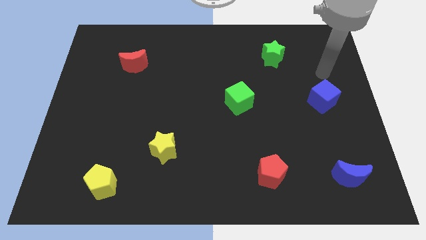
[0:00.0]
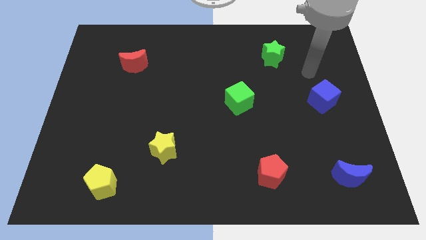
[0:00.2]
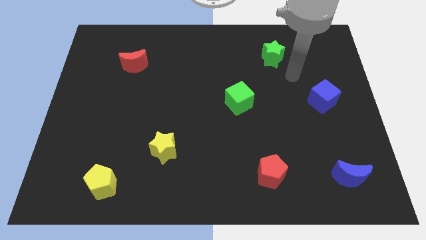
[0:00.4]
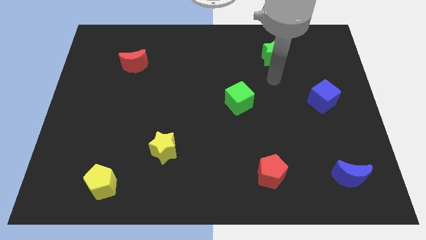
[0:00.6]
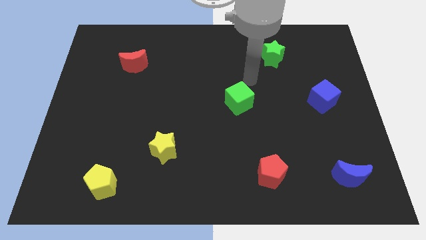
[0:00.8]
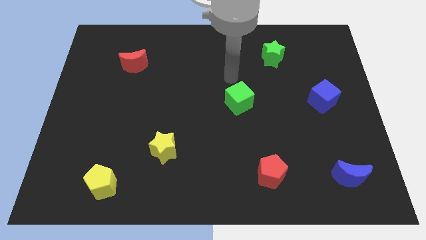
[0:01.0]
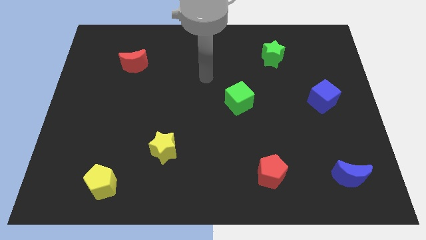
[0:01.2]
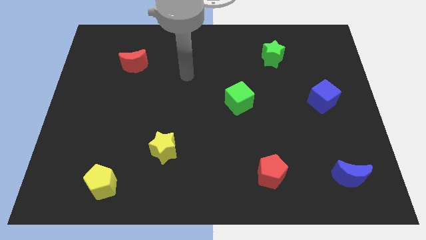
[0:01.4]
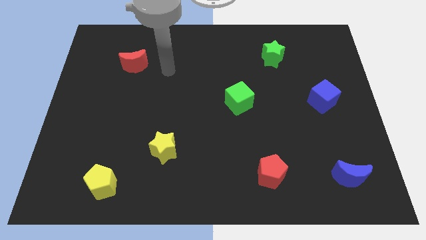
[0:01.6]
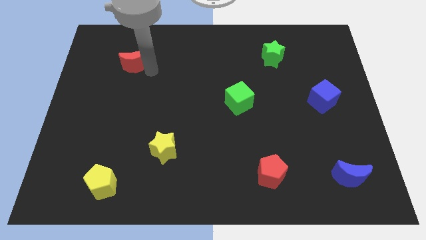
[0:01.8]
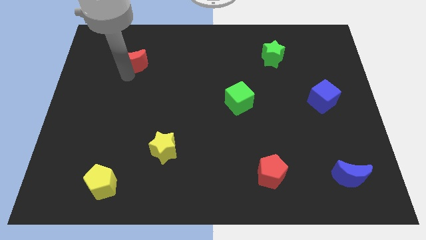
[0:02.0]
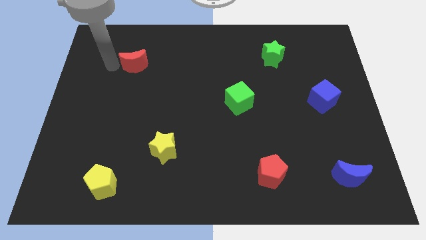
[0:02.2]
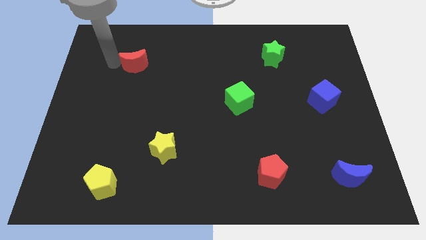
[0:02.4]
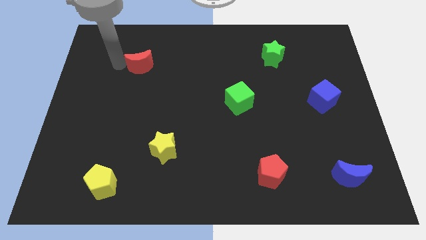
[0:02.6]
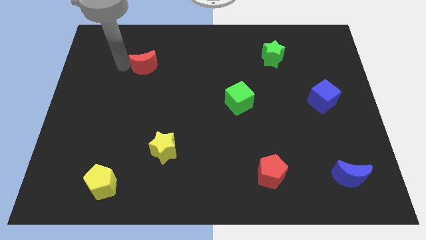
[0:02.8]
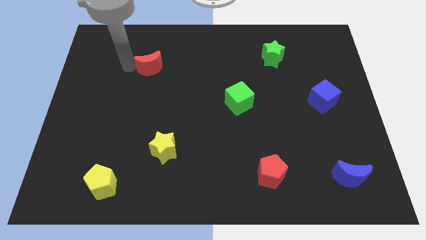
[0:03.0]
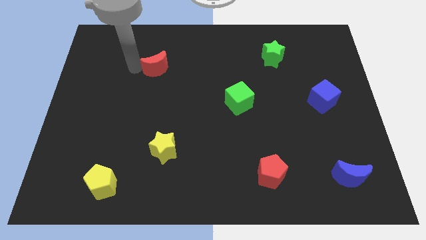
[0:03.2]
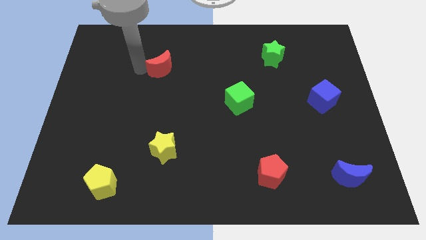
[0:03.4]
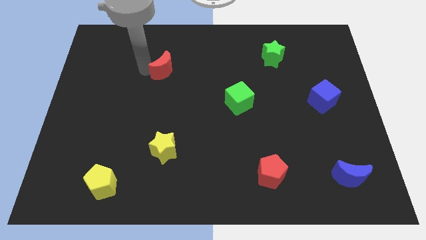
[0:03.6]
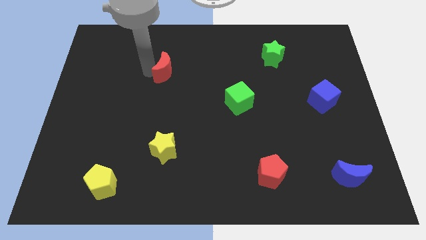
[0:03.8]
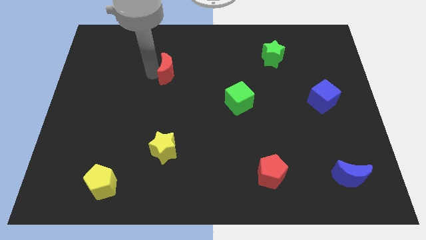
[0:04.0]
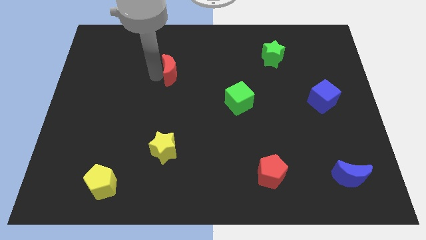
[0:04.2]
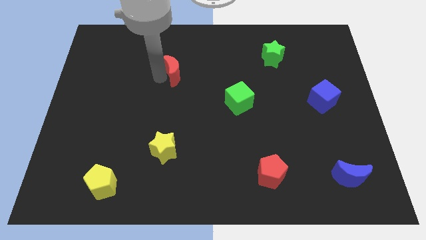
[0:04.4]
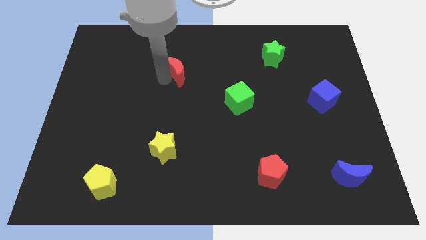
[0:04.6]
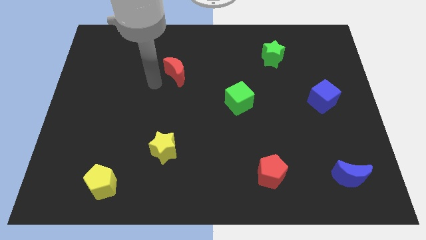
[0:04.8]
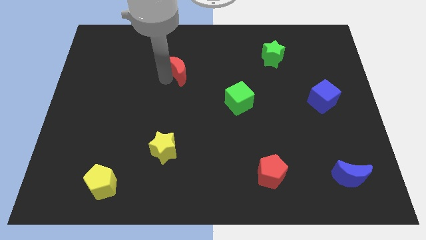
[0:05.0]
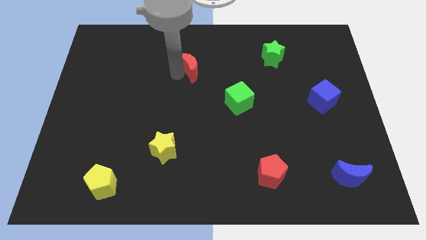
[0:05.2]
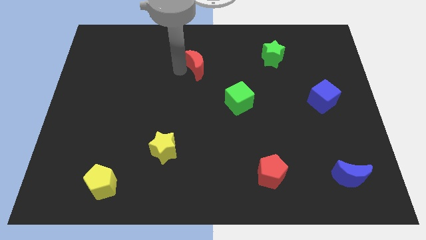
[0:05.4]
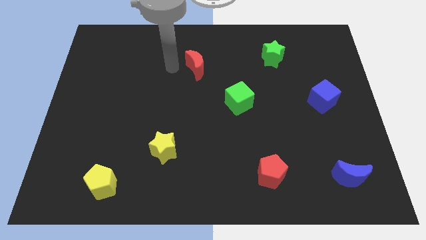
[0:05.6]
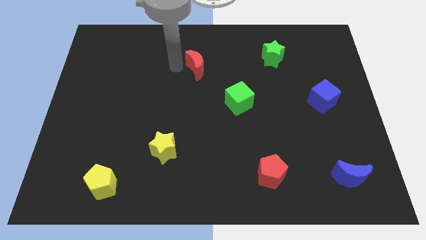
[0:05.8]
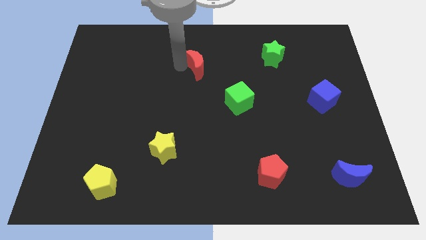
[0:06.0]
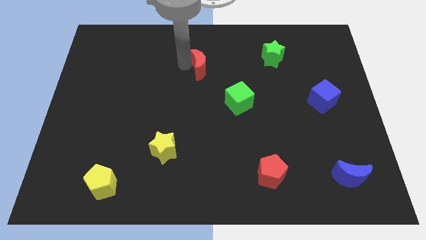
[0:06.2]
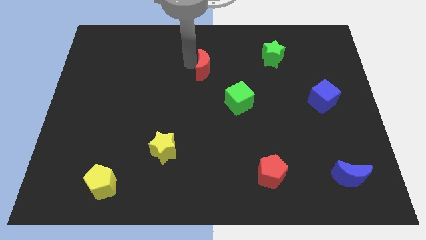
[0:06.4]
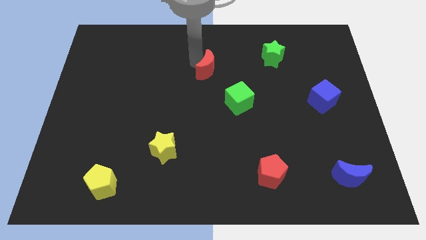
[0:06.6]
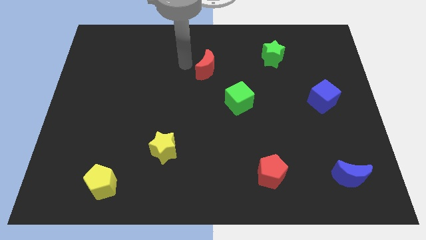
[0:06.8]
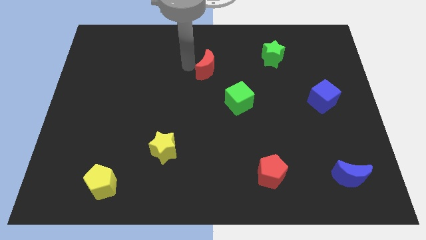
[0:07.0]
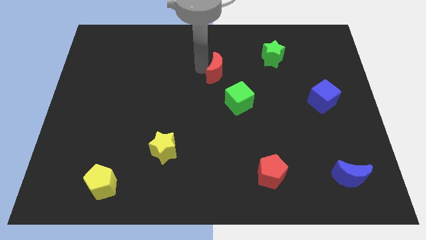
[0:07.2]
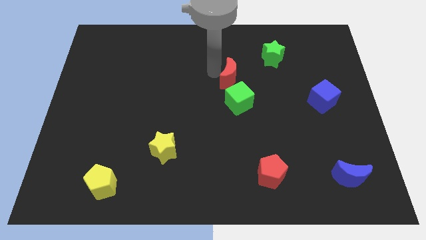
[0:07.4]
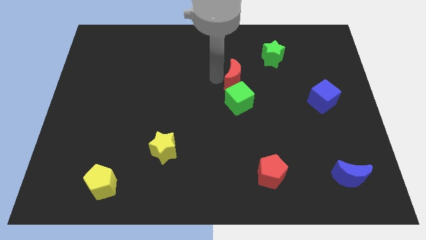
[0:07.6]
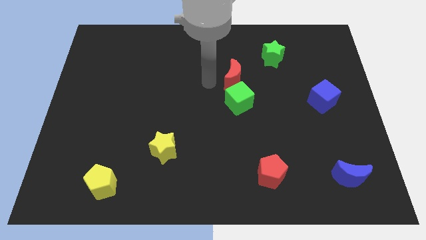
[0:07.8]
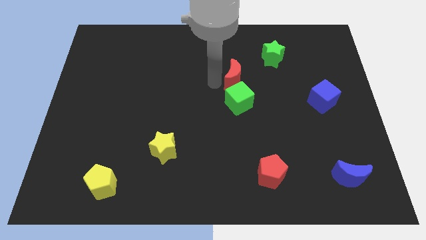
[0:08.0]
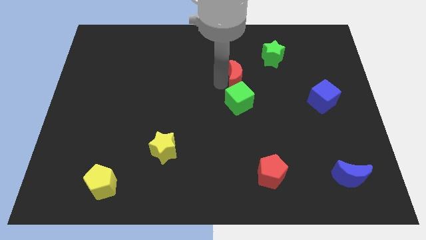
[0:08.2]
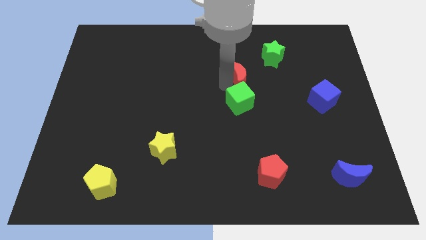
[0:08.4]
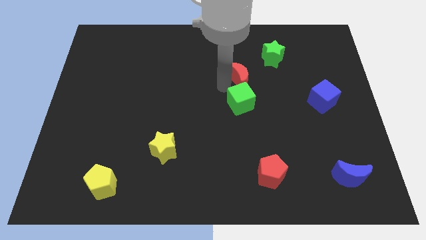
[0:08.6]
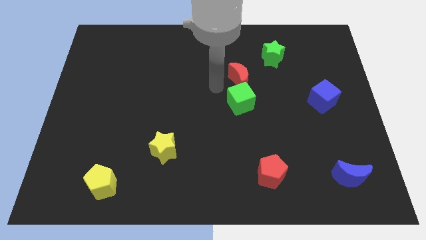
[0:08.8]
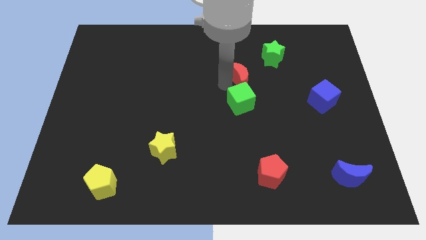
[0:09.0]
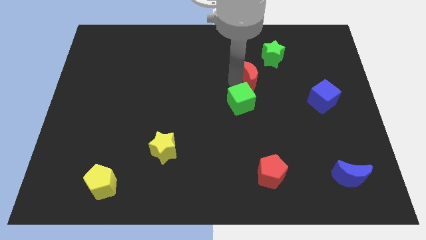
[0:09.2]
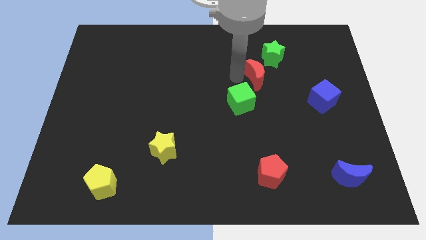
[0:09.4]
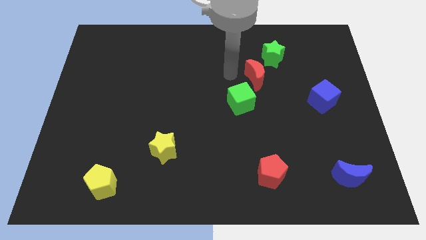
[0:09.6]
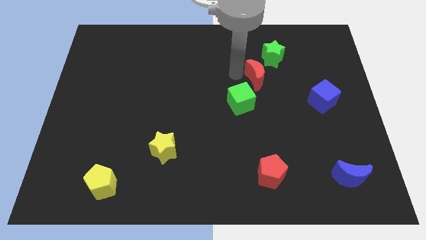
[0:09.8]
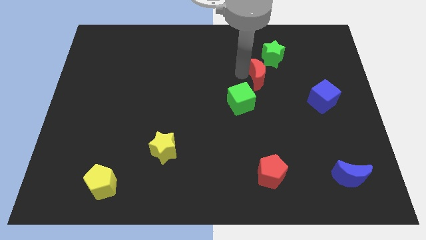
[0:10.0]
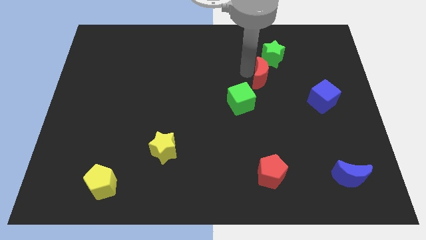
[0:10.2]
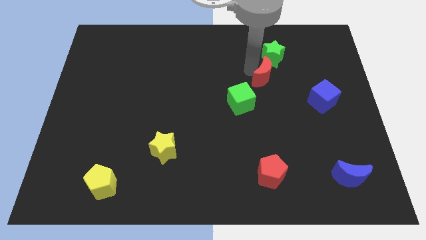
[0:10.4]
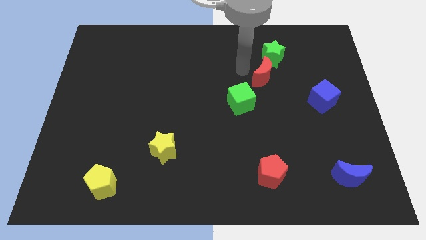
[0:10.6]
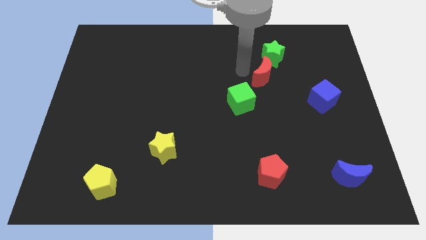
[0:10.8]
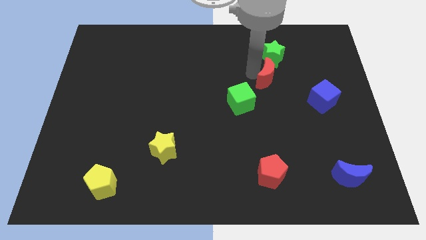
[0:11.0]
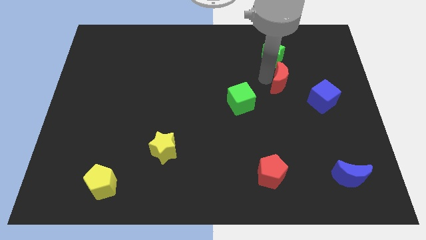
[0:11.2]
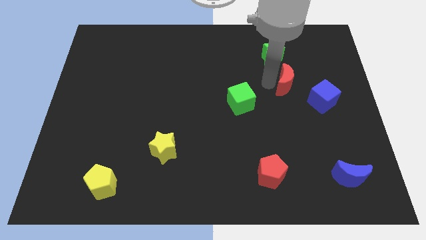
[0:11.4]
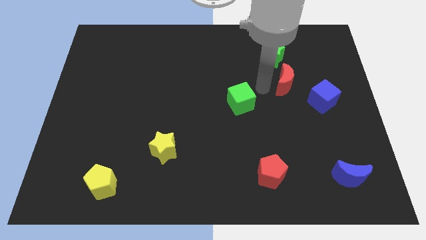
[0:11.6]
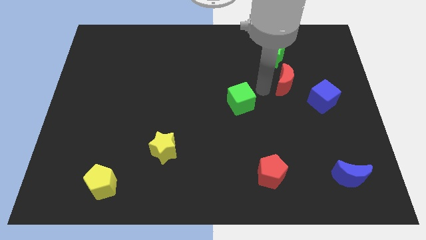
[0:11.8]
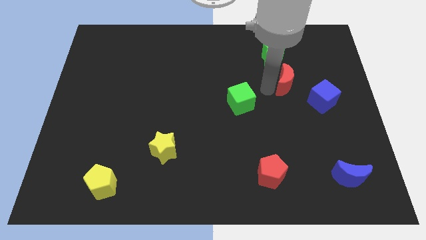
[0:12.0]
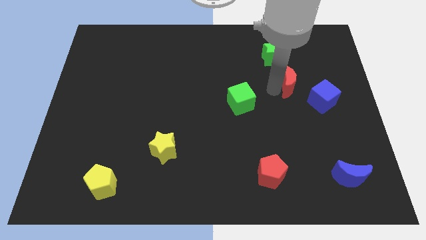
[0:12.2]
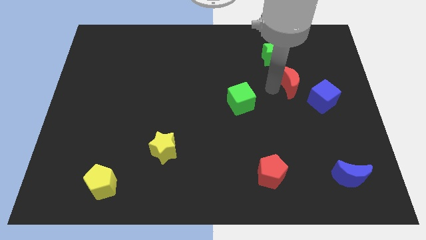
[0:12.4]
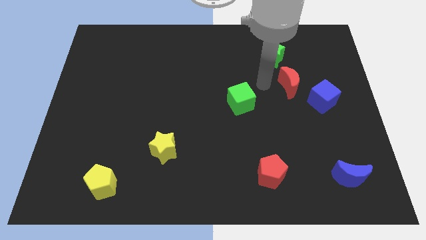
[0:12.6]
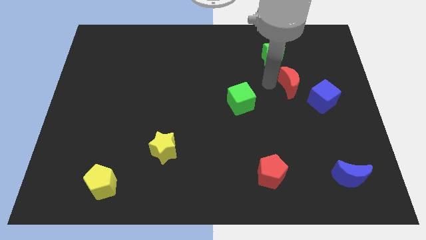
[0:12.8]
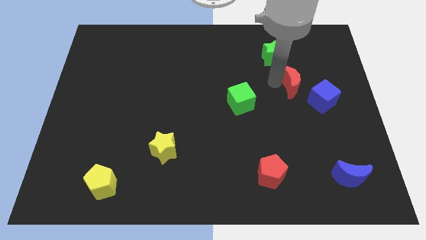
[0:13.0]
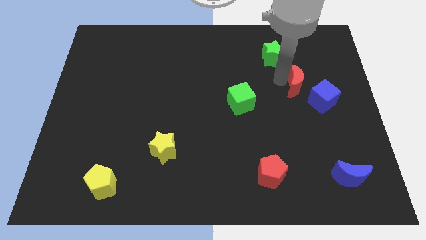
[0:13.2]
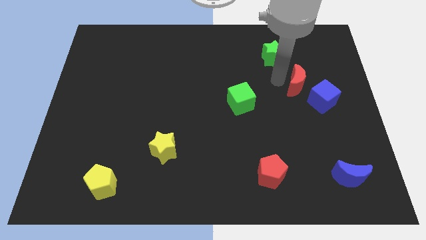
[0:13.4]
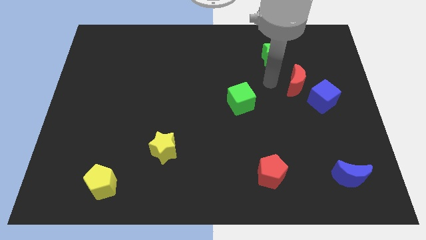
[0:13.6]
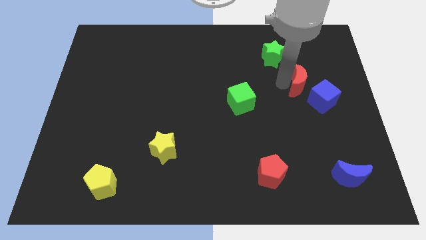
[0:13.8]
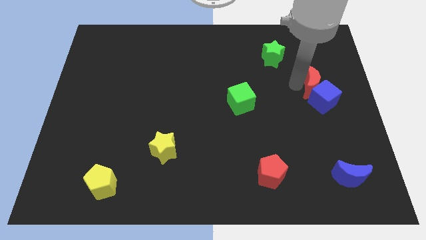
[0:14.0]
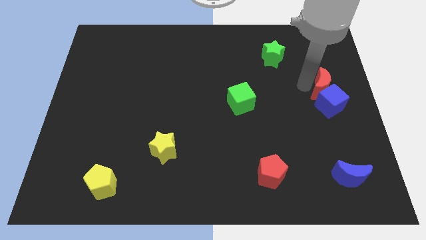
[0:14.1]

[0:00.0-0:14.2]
put the red moon to the center right
